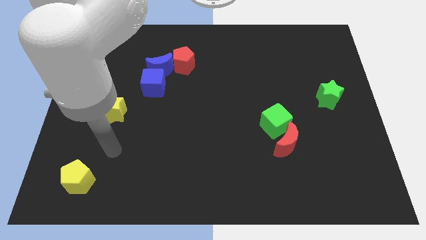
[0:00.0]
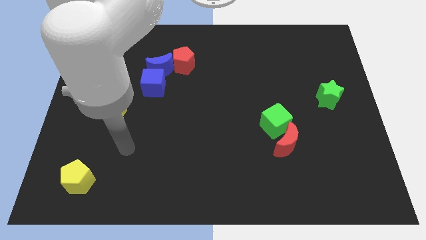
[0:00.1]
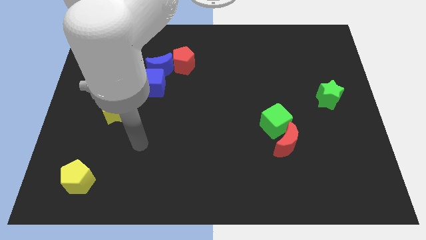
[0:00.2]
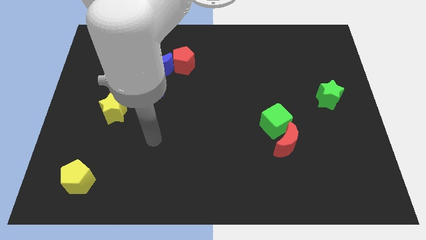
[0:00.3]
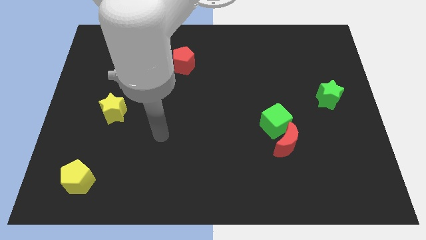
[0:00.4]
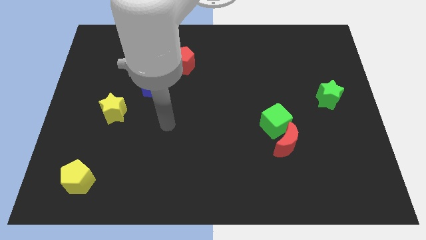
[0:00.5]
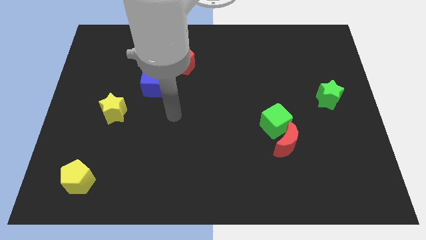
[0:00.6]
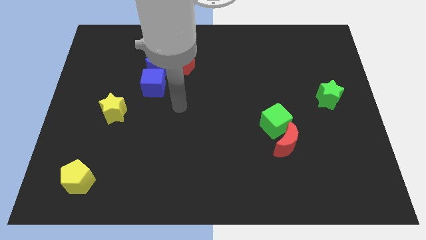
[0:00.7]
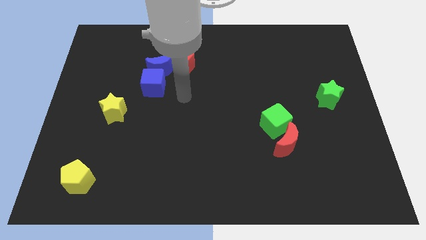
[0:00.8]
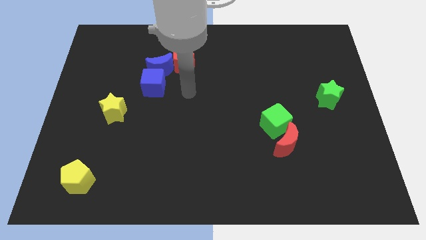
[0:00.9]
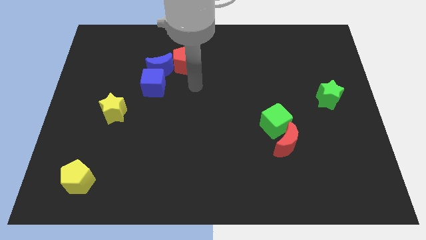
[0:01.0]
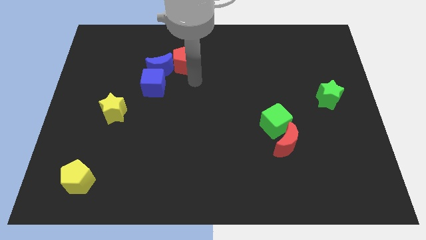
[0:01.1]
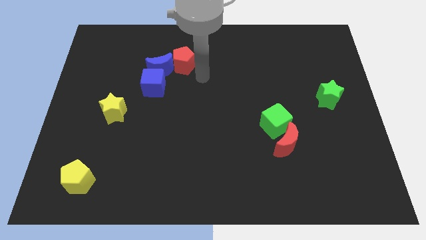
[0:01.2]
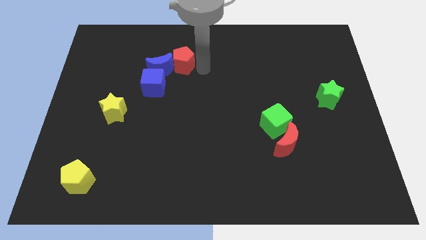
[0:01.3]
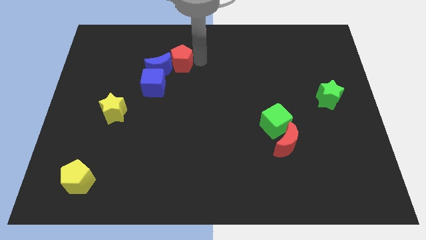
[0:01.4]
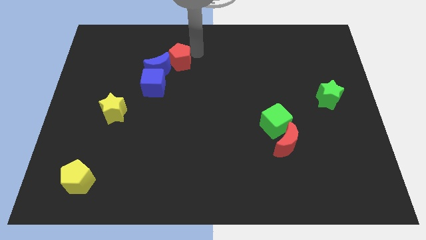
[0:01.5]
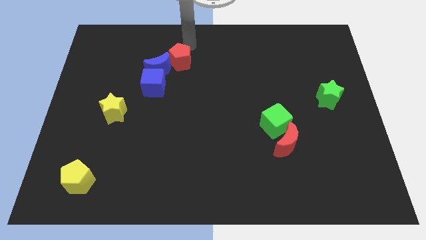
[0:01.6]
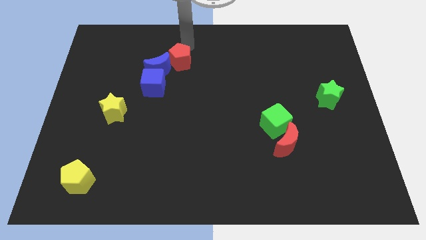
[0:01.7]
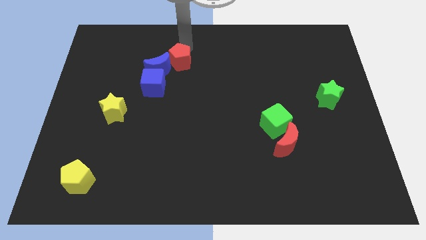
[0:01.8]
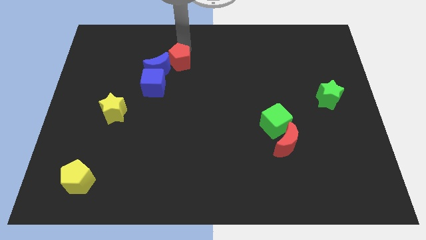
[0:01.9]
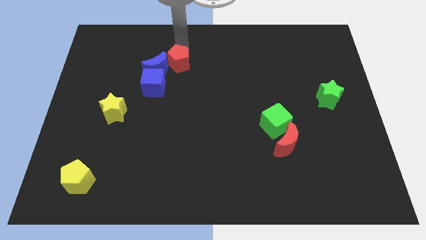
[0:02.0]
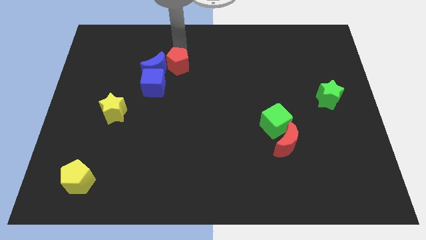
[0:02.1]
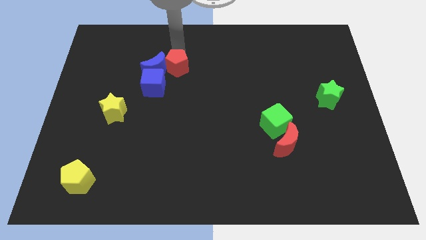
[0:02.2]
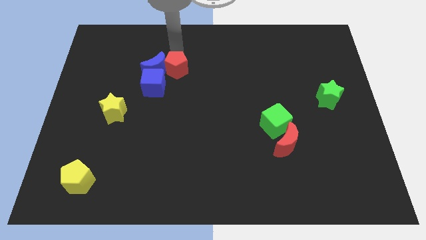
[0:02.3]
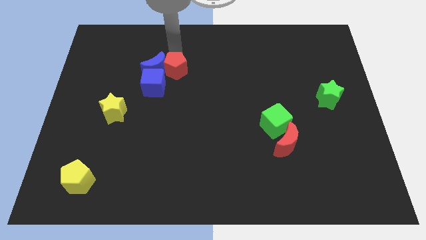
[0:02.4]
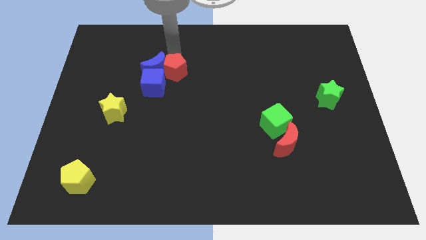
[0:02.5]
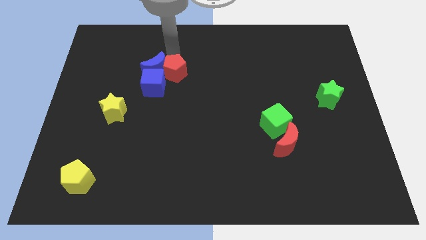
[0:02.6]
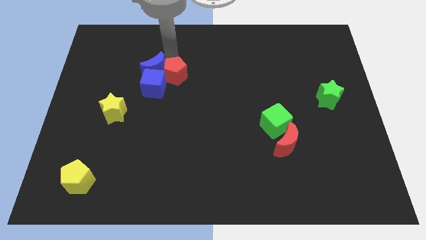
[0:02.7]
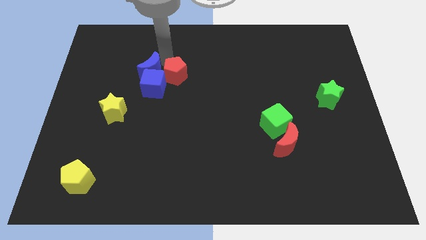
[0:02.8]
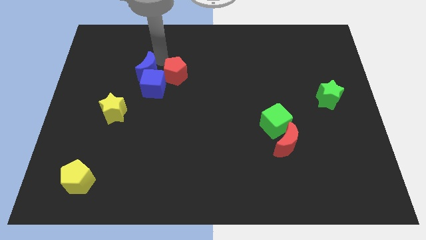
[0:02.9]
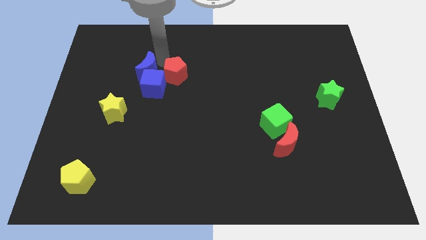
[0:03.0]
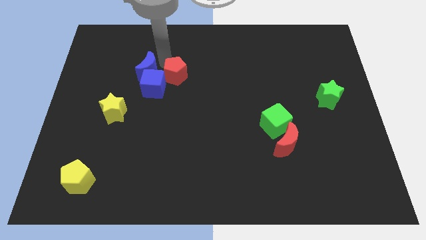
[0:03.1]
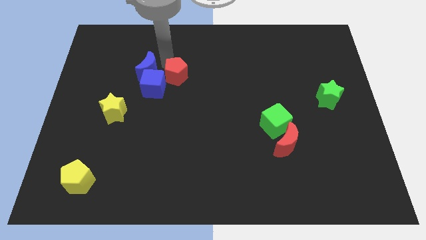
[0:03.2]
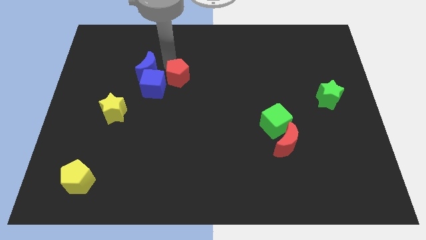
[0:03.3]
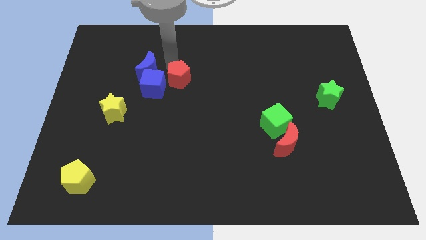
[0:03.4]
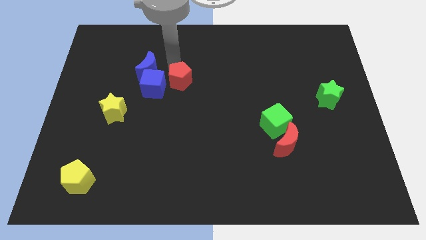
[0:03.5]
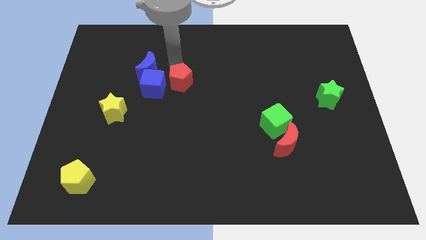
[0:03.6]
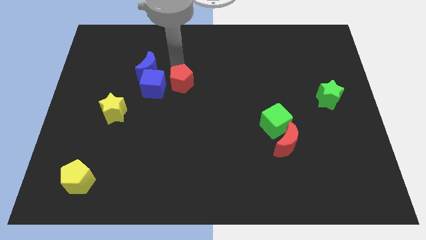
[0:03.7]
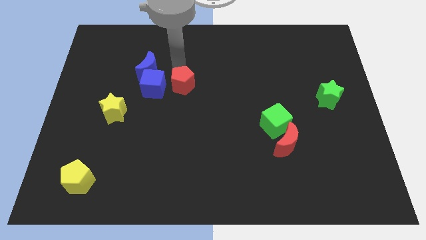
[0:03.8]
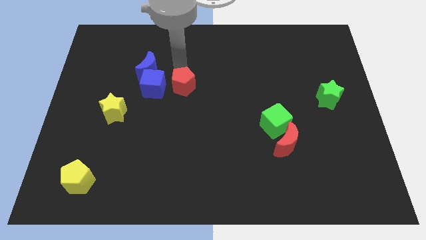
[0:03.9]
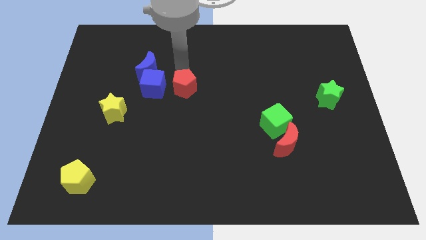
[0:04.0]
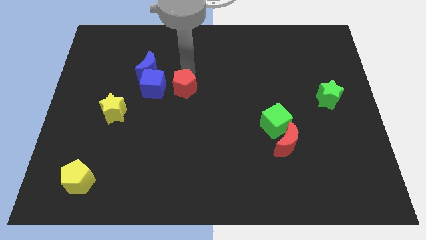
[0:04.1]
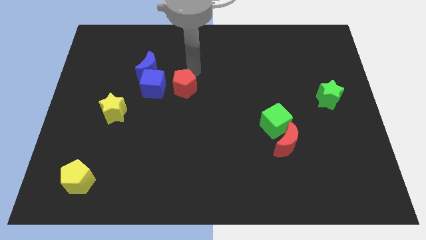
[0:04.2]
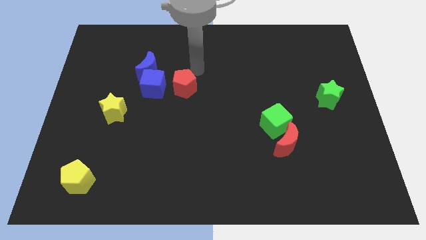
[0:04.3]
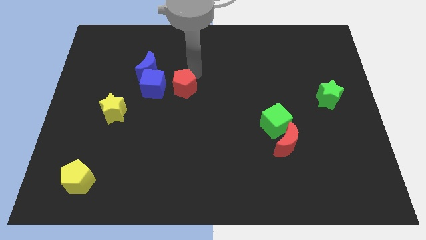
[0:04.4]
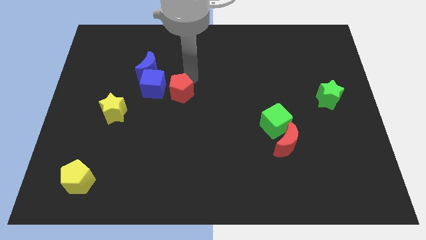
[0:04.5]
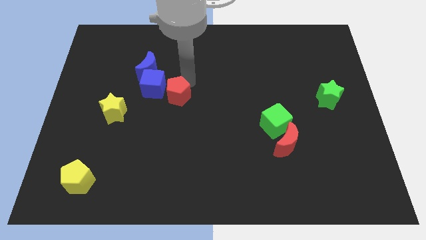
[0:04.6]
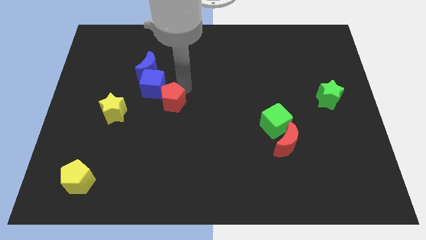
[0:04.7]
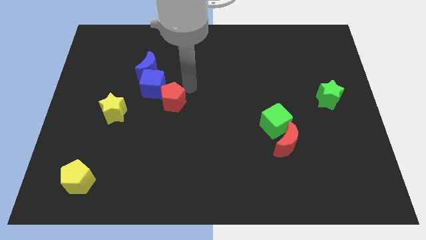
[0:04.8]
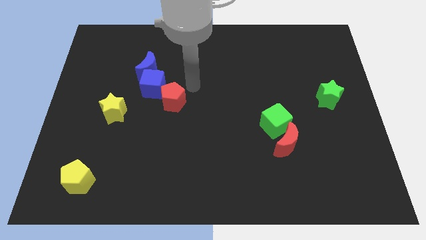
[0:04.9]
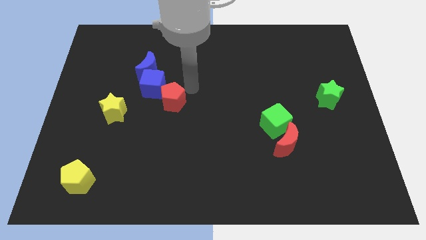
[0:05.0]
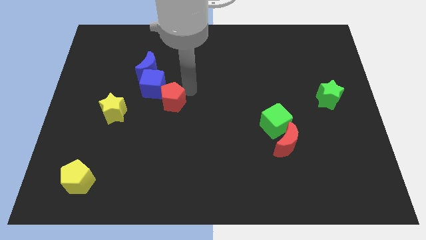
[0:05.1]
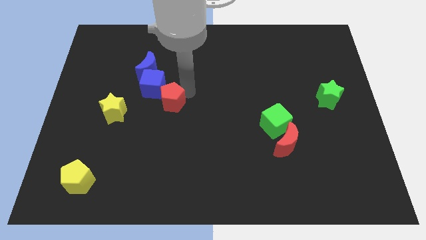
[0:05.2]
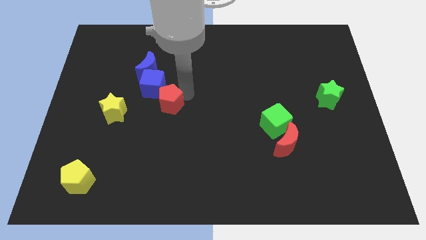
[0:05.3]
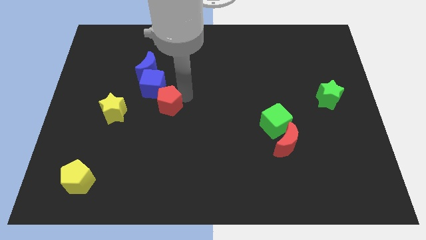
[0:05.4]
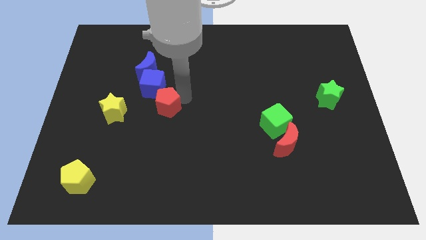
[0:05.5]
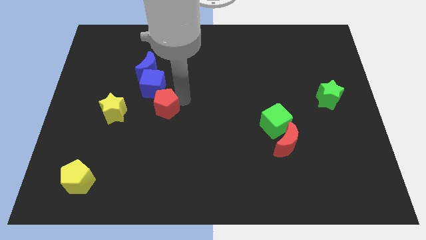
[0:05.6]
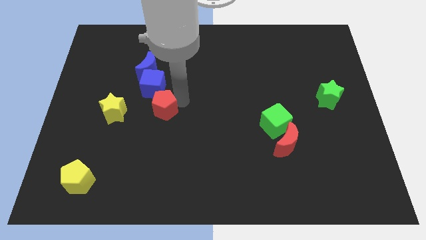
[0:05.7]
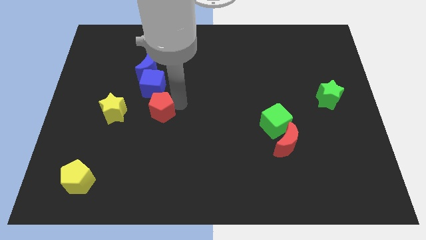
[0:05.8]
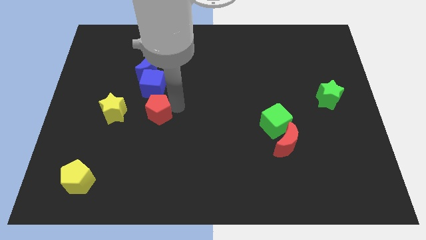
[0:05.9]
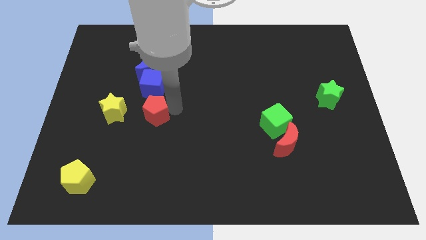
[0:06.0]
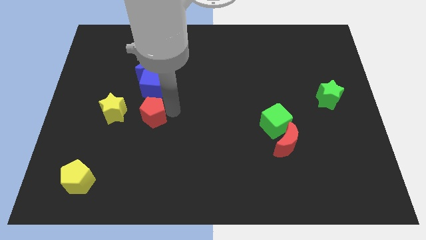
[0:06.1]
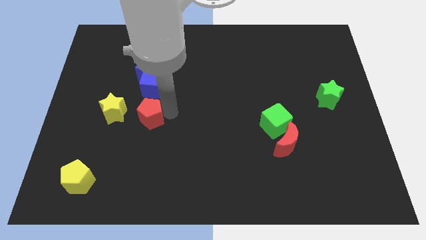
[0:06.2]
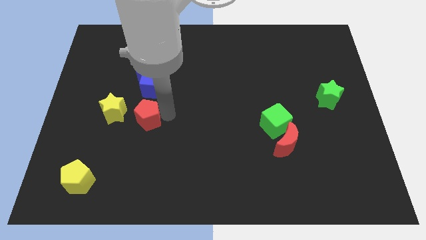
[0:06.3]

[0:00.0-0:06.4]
move the red pentagon to the bottom right side of the yellow star

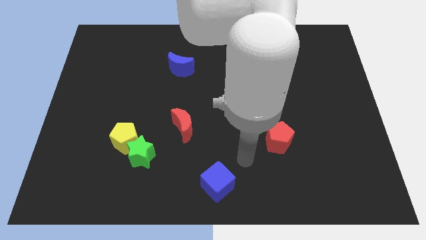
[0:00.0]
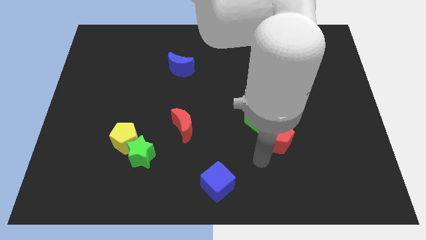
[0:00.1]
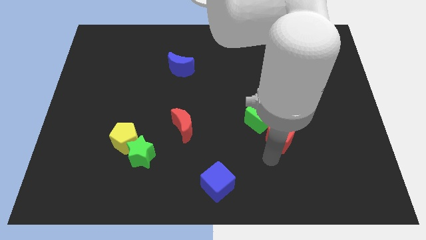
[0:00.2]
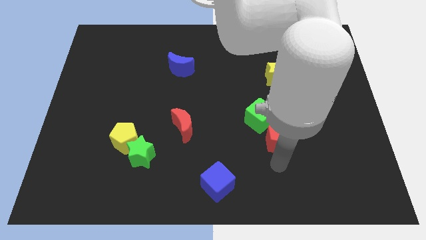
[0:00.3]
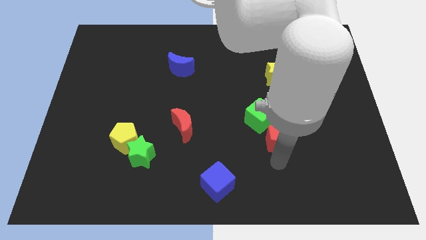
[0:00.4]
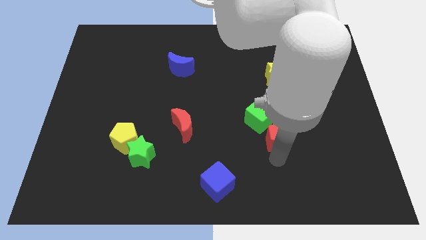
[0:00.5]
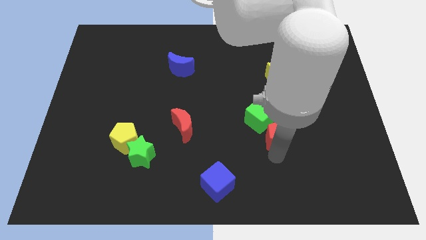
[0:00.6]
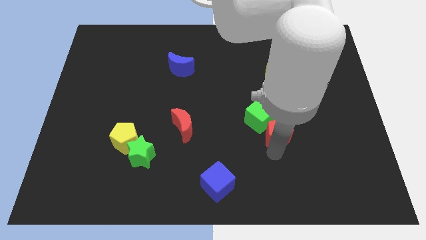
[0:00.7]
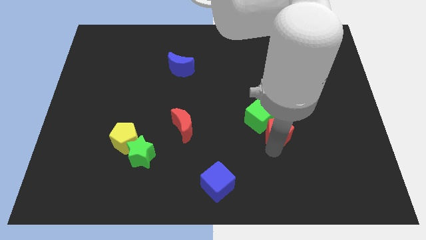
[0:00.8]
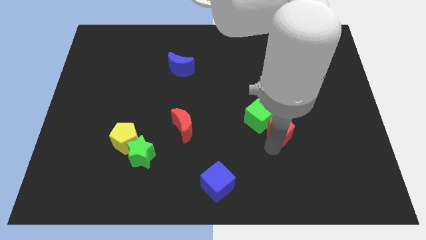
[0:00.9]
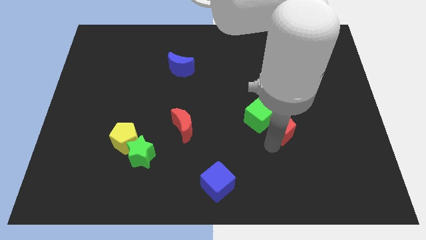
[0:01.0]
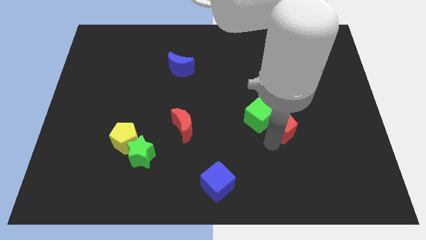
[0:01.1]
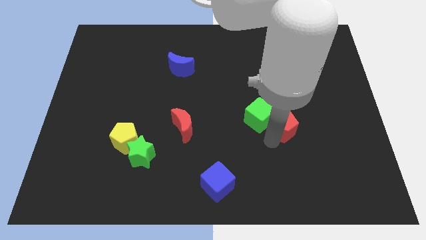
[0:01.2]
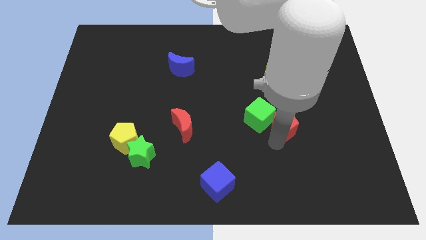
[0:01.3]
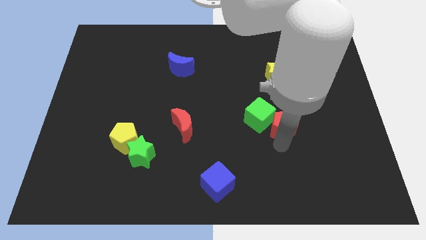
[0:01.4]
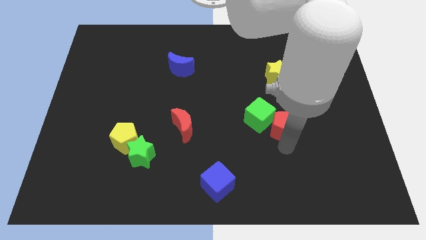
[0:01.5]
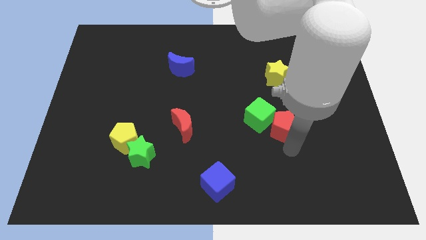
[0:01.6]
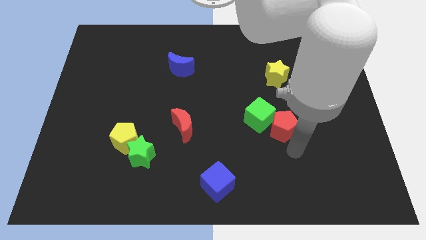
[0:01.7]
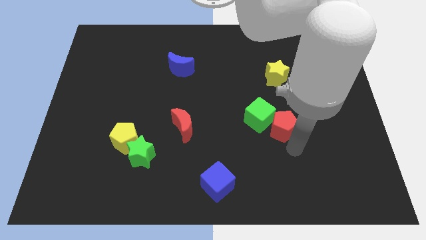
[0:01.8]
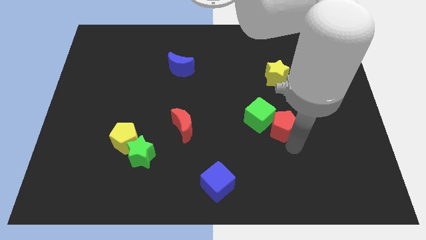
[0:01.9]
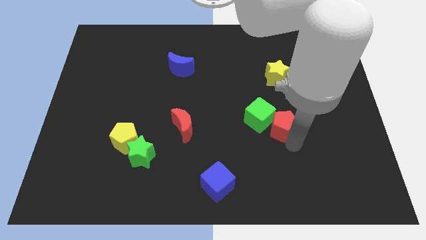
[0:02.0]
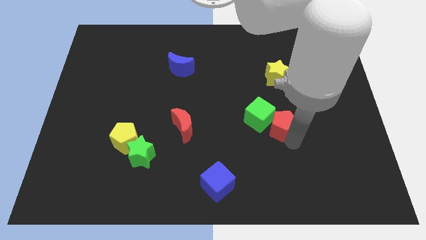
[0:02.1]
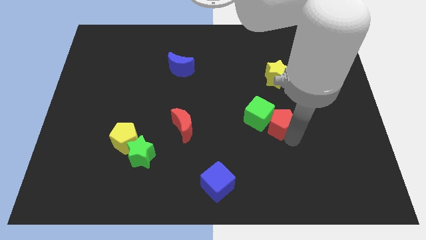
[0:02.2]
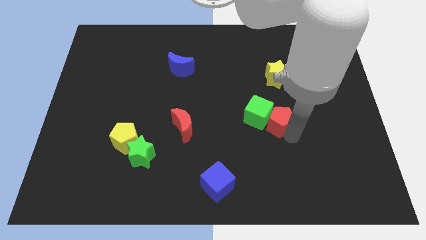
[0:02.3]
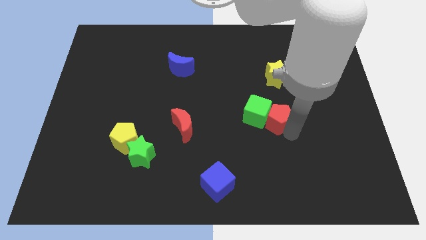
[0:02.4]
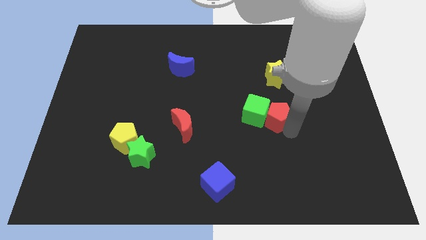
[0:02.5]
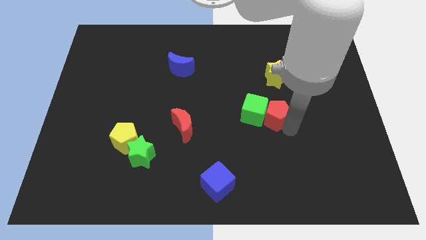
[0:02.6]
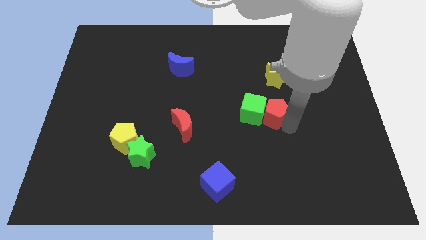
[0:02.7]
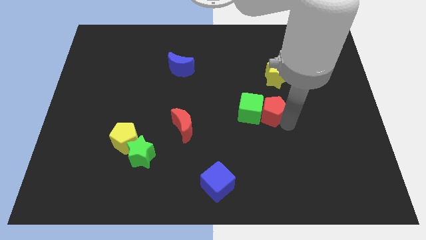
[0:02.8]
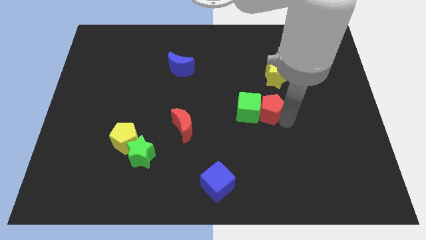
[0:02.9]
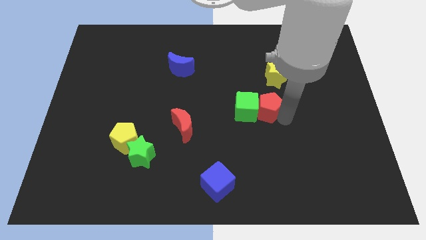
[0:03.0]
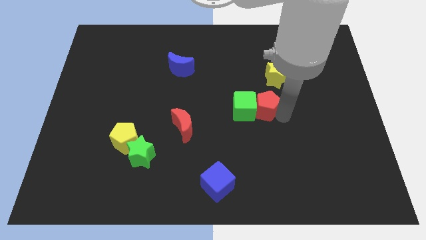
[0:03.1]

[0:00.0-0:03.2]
move the red pentagon to the bottom left side of the yellow star
